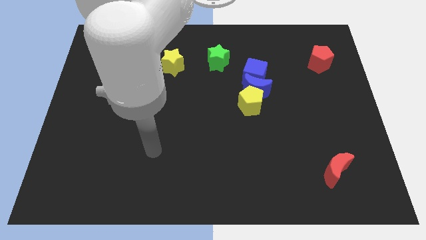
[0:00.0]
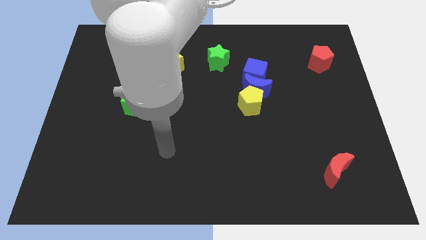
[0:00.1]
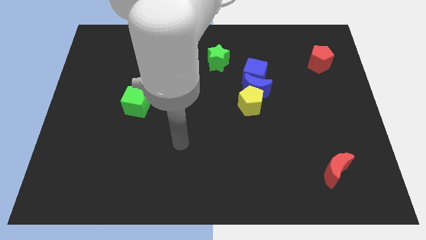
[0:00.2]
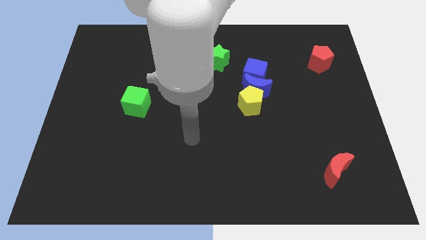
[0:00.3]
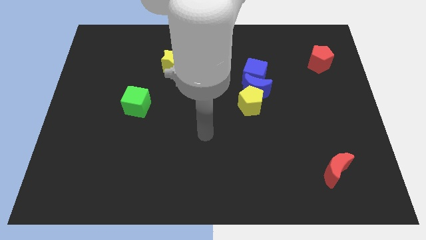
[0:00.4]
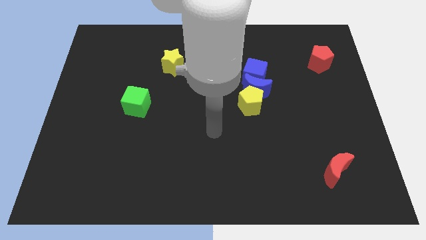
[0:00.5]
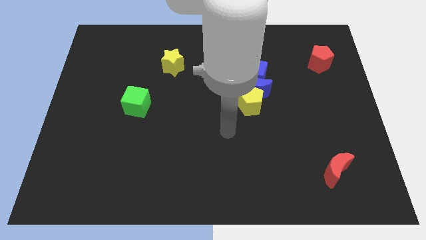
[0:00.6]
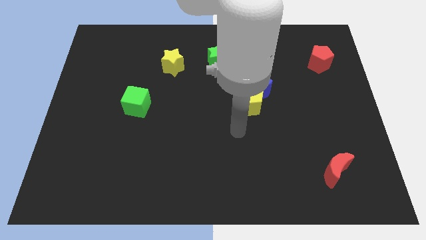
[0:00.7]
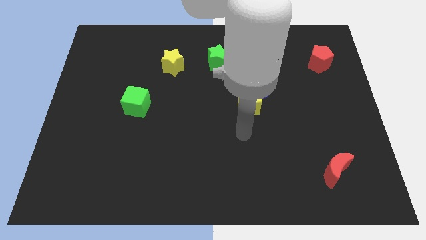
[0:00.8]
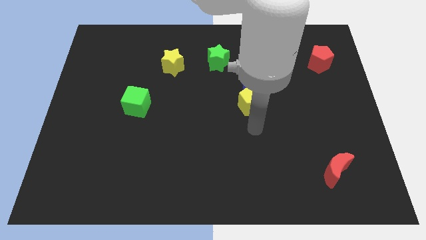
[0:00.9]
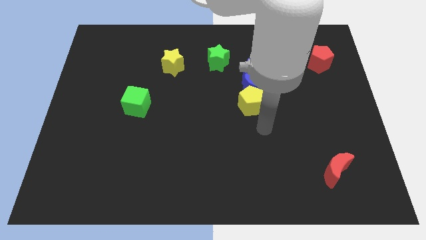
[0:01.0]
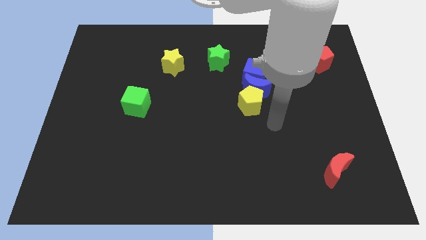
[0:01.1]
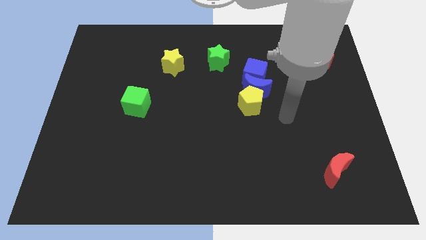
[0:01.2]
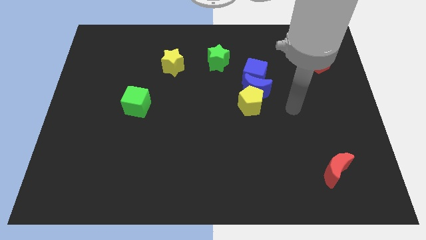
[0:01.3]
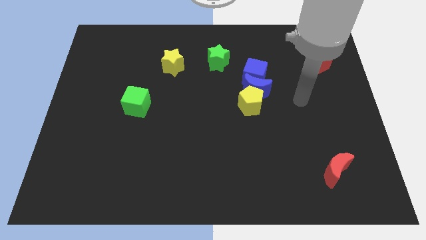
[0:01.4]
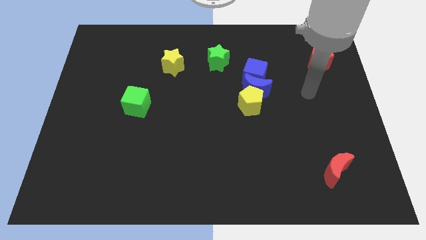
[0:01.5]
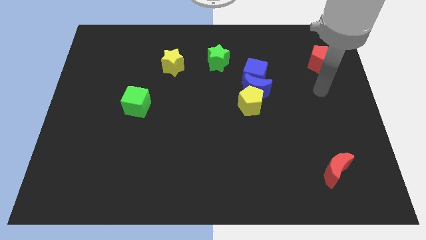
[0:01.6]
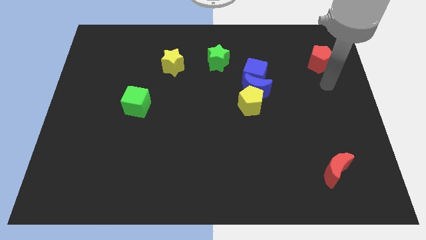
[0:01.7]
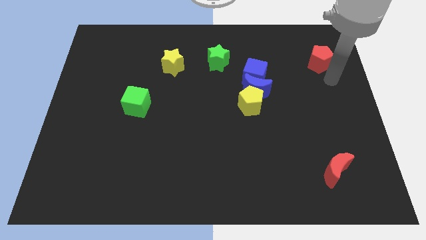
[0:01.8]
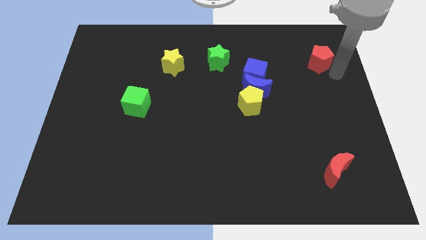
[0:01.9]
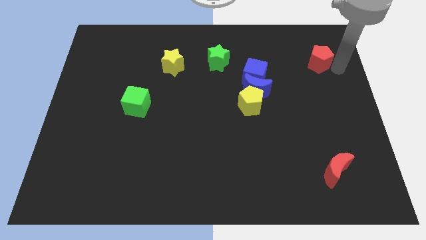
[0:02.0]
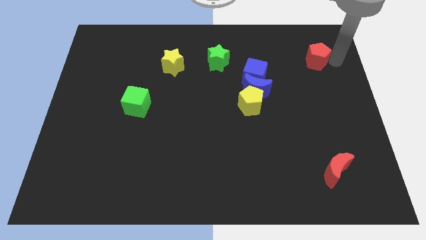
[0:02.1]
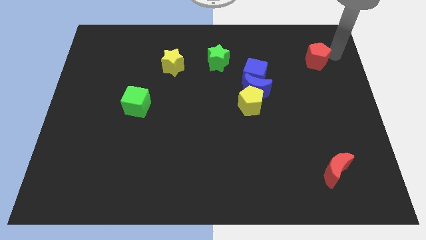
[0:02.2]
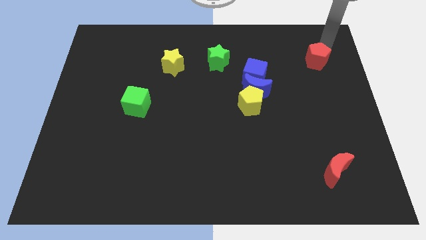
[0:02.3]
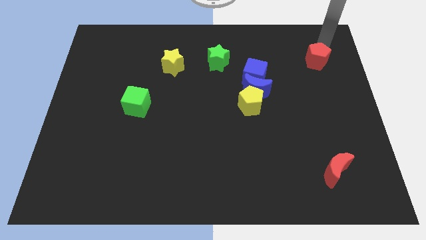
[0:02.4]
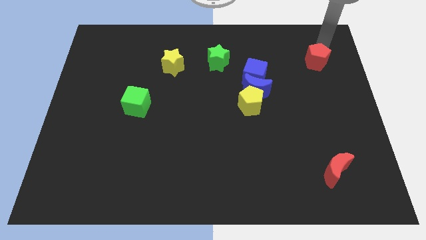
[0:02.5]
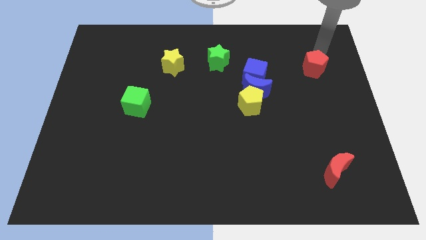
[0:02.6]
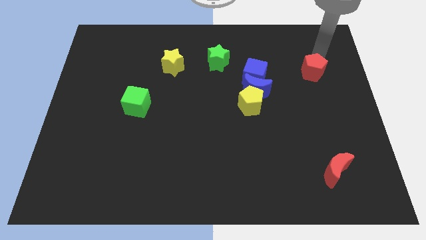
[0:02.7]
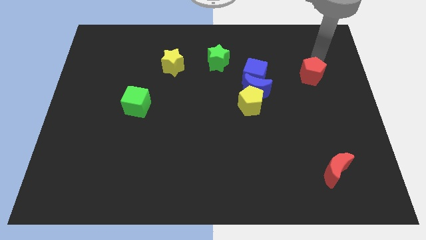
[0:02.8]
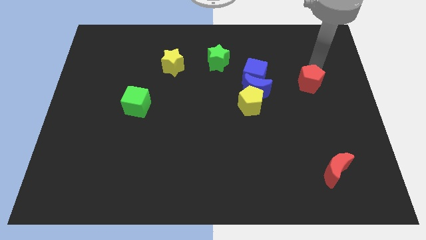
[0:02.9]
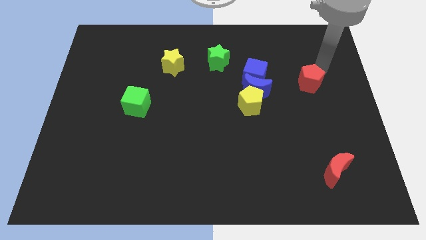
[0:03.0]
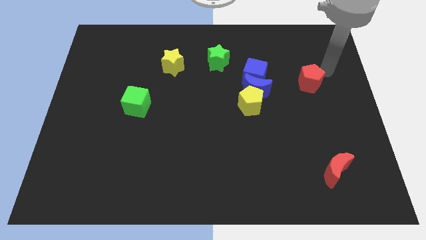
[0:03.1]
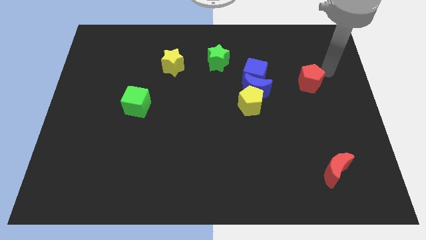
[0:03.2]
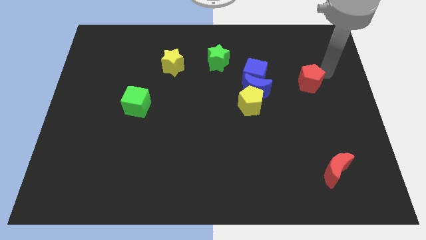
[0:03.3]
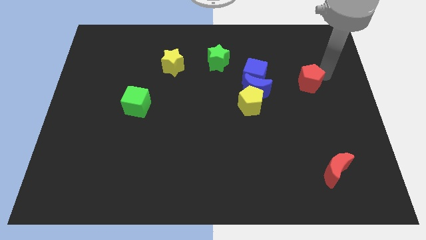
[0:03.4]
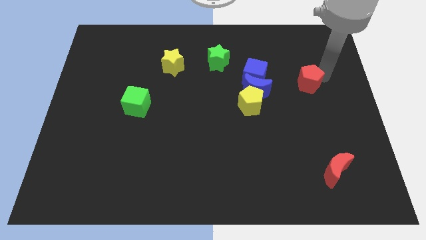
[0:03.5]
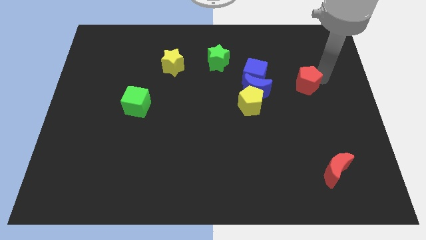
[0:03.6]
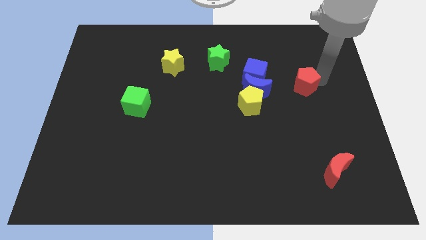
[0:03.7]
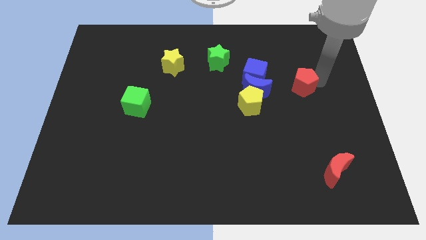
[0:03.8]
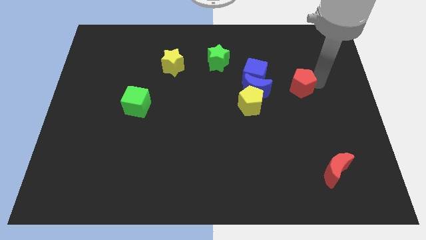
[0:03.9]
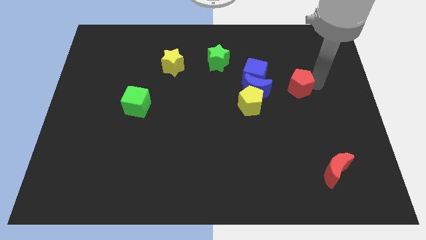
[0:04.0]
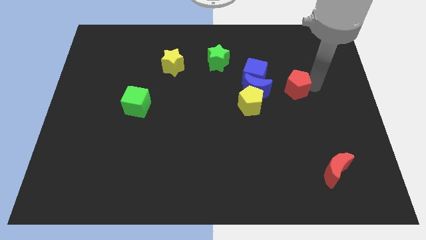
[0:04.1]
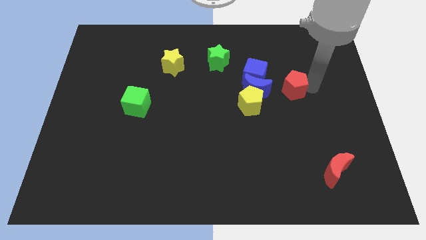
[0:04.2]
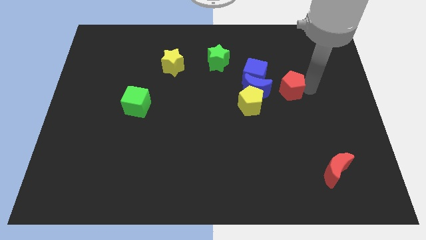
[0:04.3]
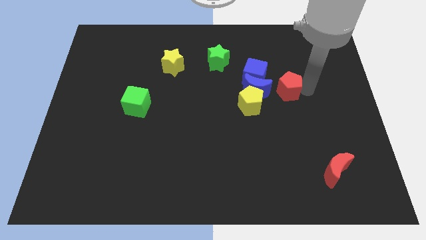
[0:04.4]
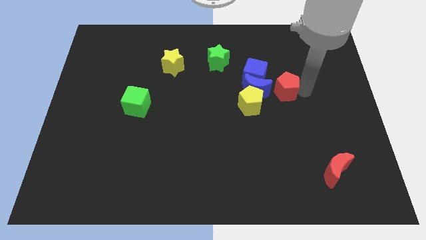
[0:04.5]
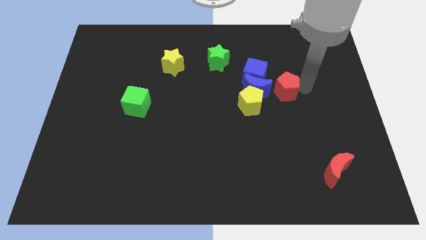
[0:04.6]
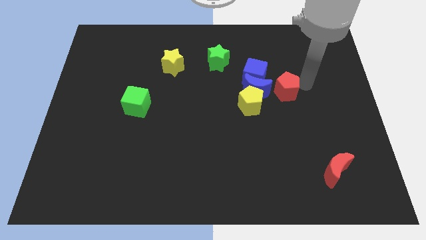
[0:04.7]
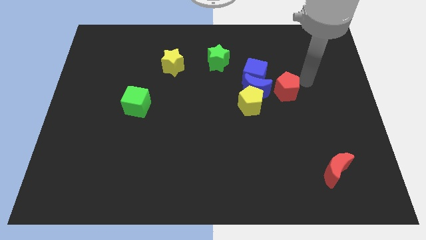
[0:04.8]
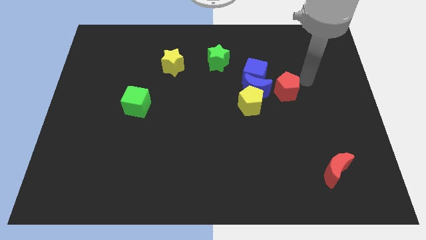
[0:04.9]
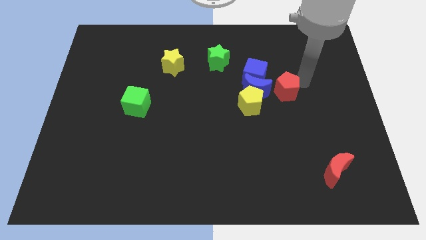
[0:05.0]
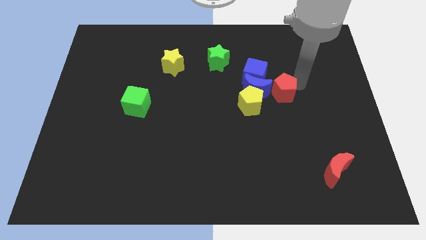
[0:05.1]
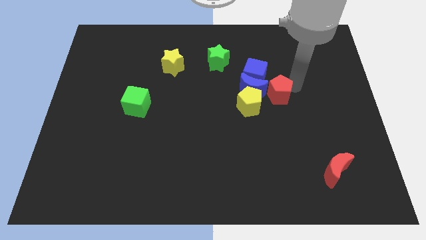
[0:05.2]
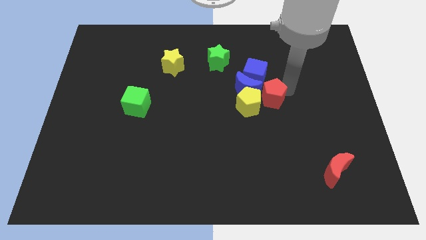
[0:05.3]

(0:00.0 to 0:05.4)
push the red pentagon to the yellow pentagon

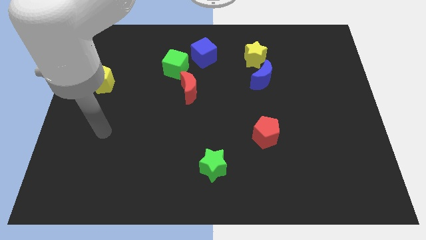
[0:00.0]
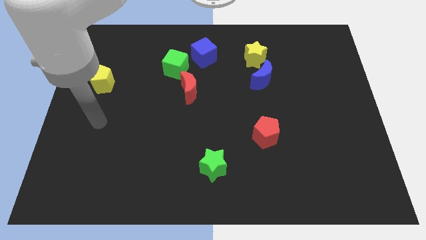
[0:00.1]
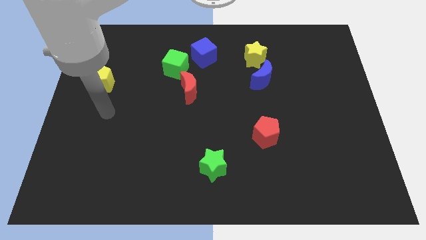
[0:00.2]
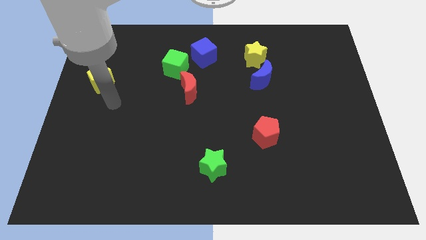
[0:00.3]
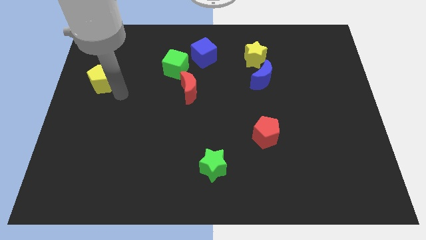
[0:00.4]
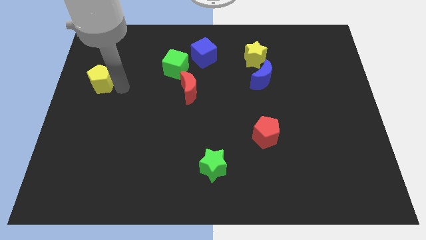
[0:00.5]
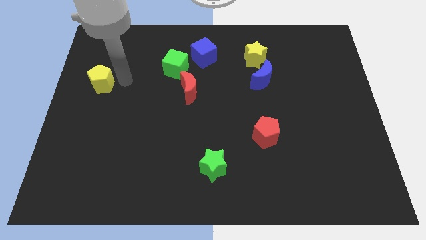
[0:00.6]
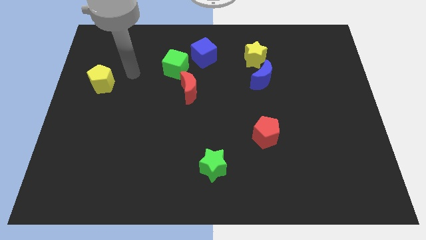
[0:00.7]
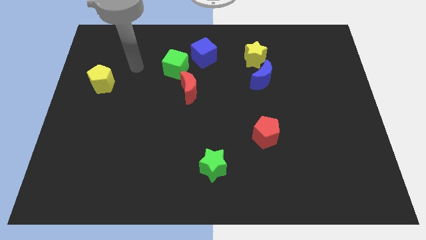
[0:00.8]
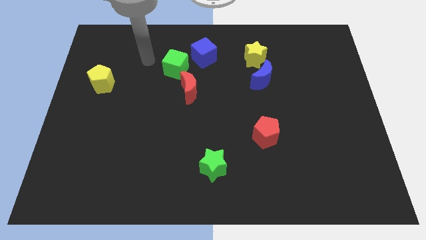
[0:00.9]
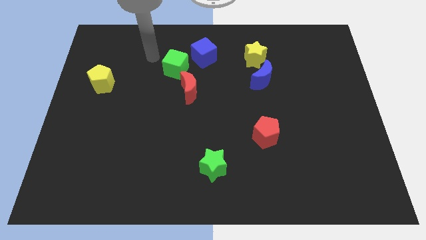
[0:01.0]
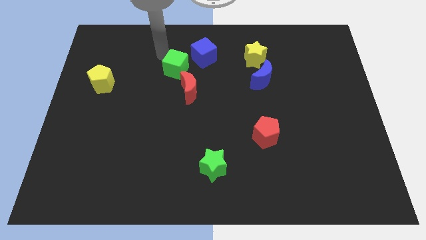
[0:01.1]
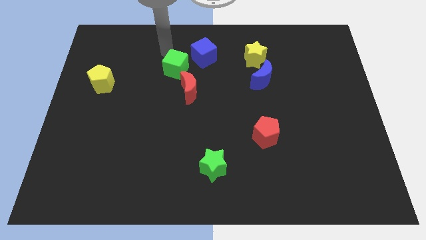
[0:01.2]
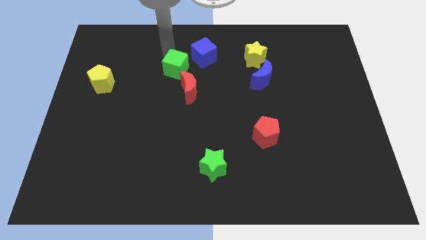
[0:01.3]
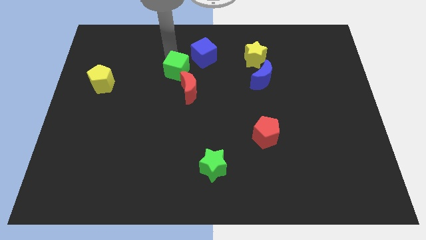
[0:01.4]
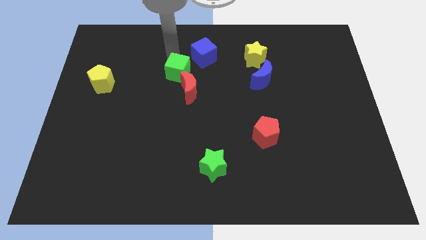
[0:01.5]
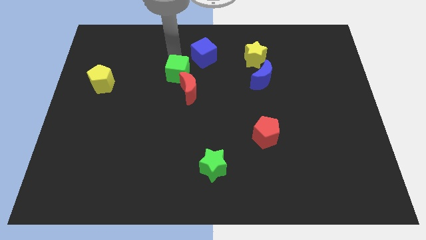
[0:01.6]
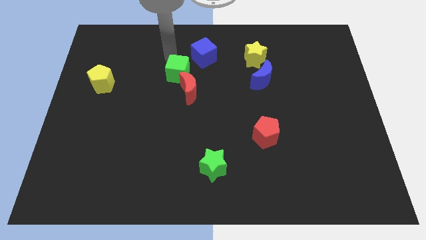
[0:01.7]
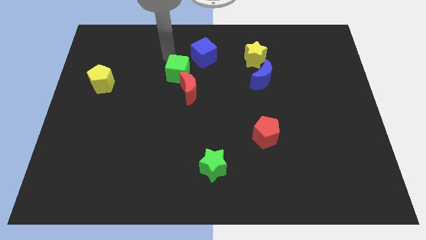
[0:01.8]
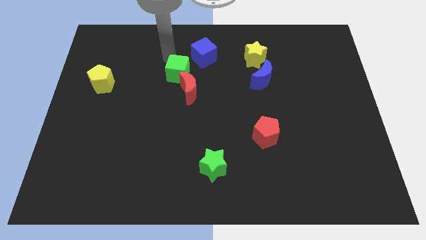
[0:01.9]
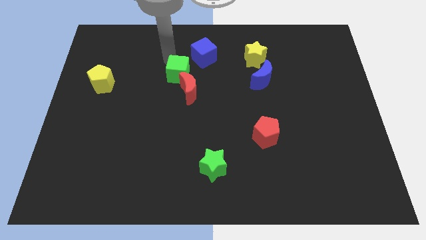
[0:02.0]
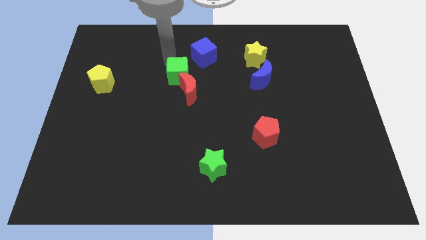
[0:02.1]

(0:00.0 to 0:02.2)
slide the green cube to the red moon
